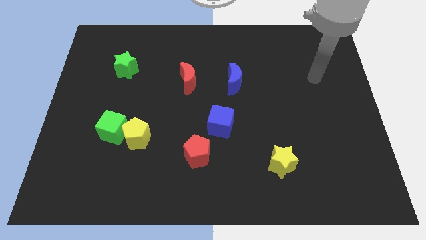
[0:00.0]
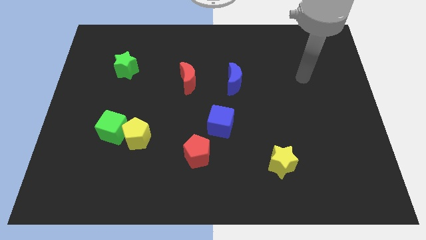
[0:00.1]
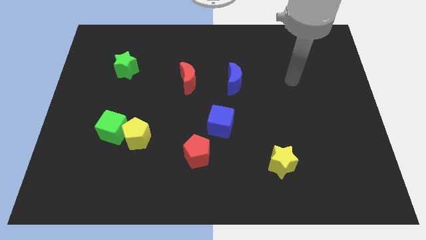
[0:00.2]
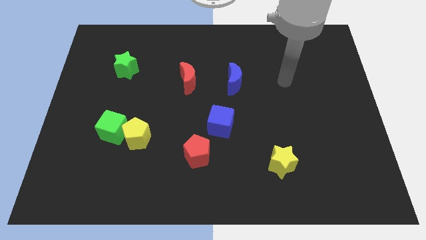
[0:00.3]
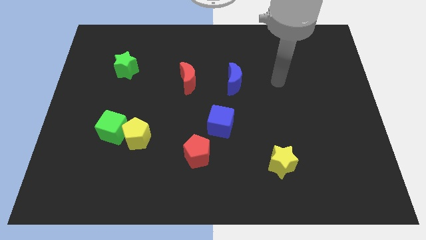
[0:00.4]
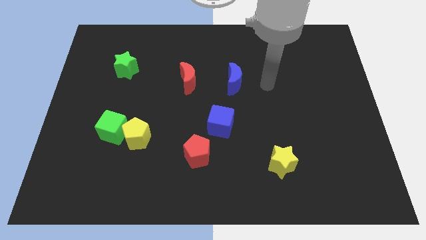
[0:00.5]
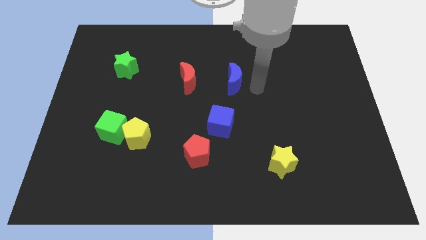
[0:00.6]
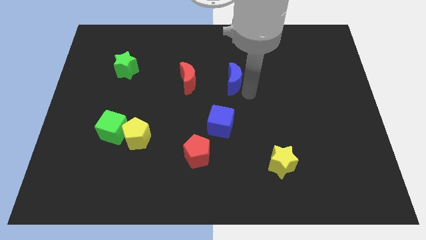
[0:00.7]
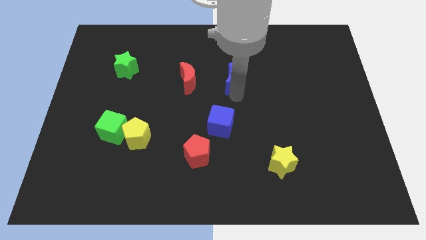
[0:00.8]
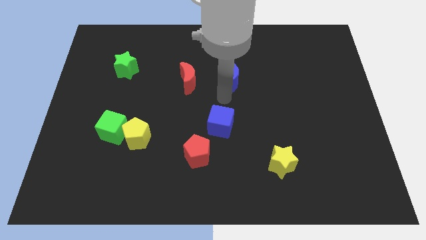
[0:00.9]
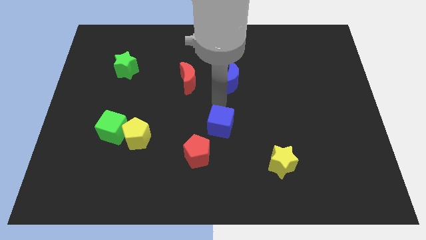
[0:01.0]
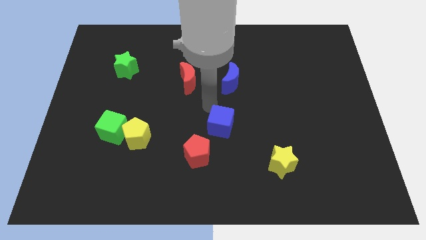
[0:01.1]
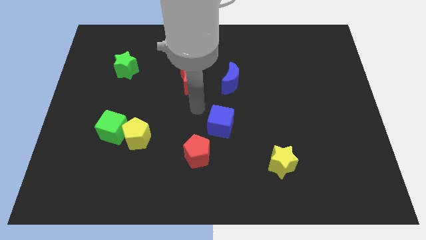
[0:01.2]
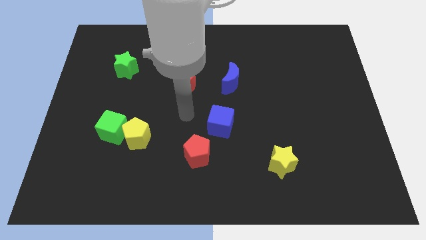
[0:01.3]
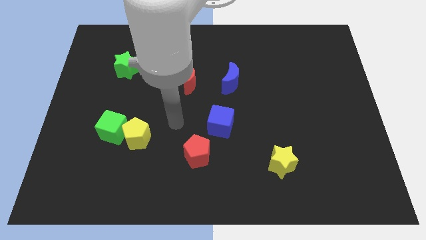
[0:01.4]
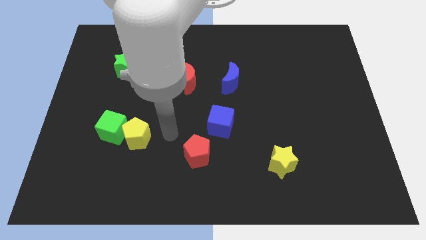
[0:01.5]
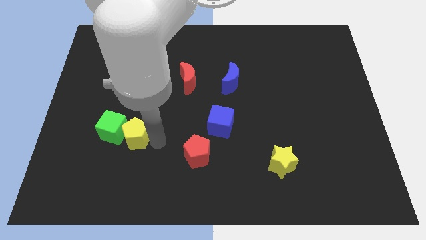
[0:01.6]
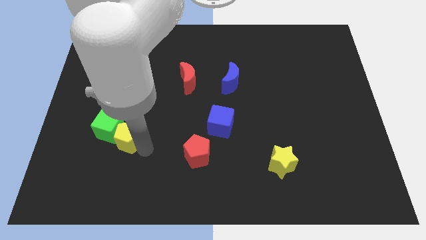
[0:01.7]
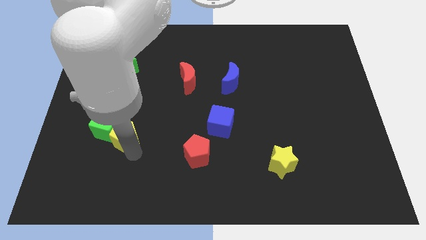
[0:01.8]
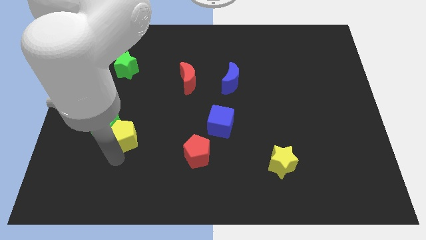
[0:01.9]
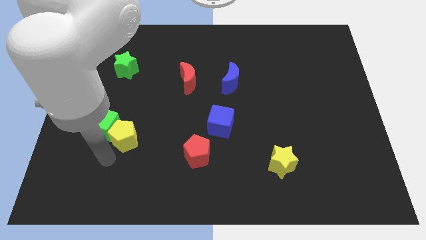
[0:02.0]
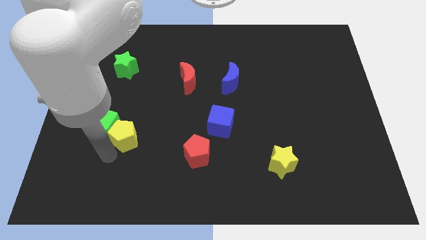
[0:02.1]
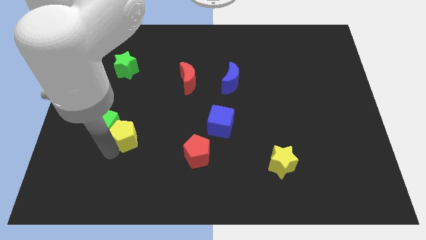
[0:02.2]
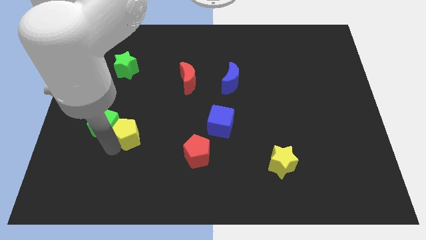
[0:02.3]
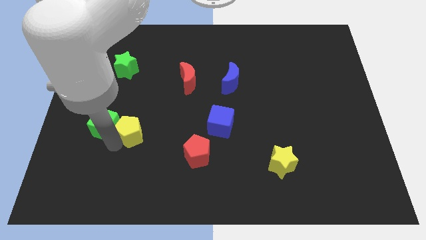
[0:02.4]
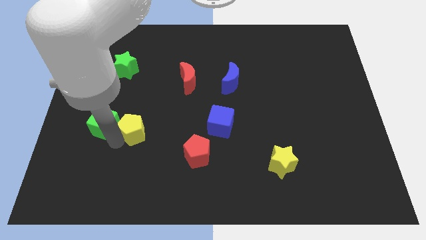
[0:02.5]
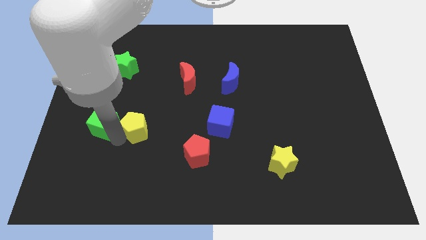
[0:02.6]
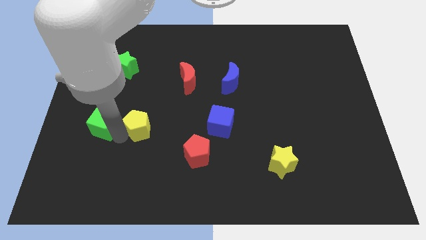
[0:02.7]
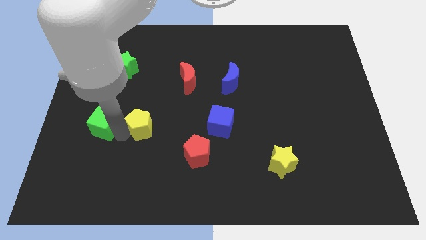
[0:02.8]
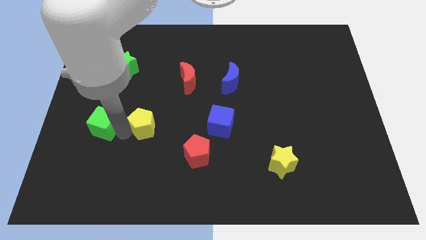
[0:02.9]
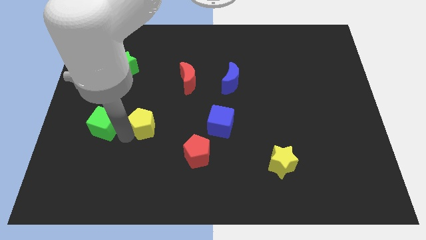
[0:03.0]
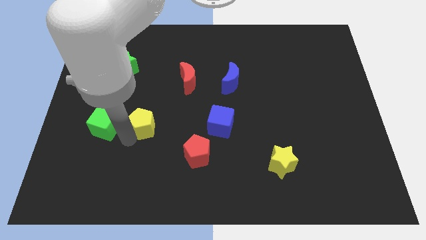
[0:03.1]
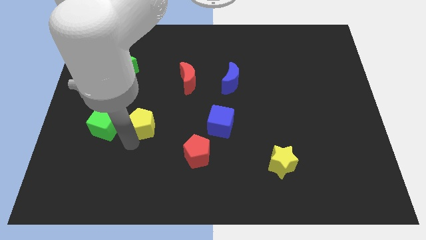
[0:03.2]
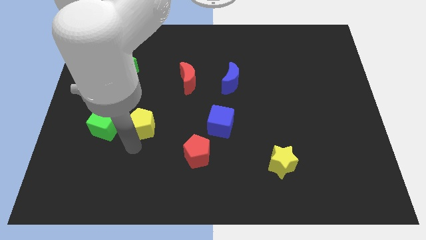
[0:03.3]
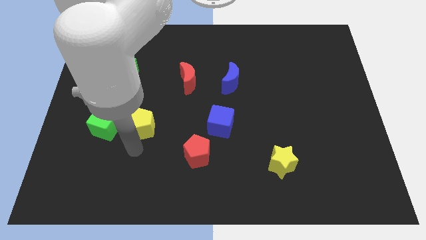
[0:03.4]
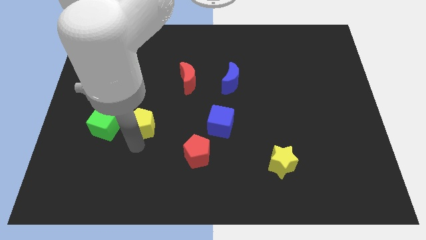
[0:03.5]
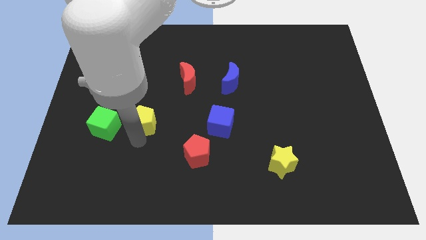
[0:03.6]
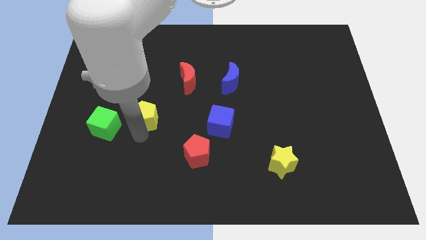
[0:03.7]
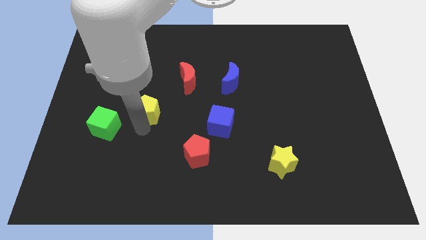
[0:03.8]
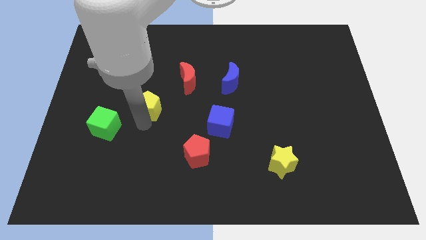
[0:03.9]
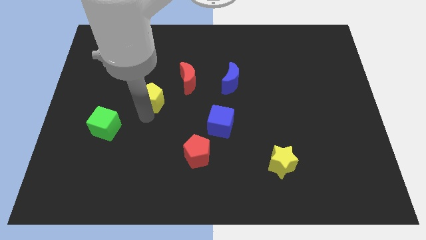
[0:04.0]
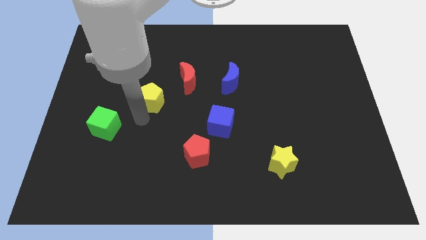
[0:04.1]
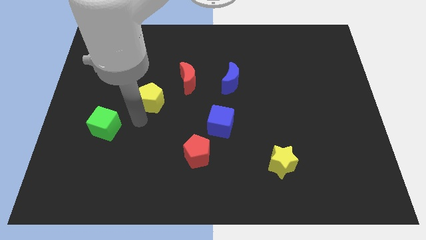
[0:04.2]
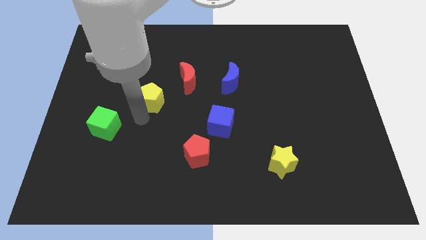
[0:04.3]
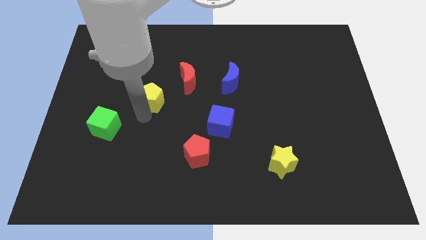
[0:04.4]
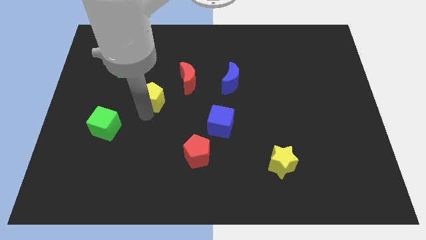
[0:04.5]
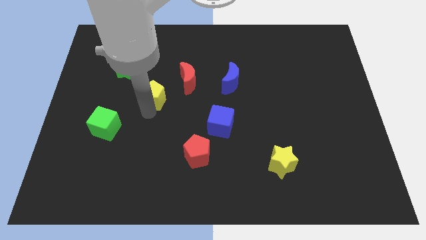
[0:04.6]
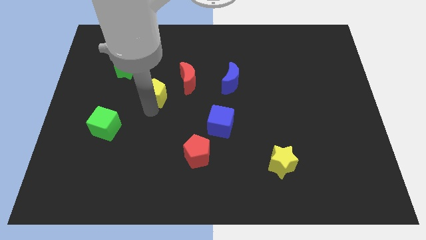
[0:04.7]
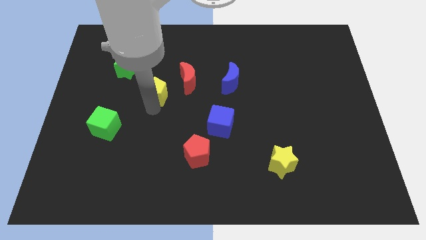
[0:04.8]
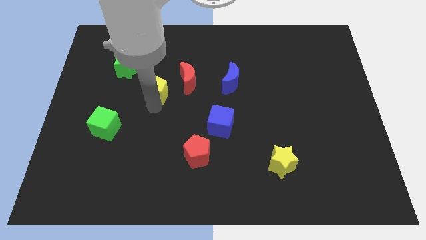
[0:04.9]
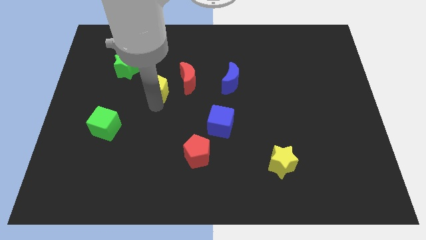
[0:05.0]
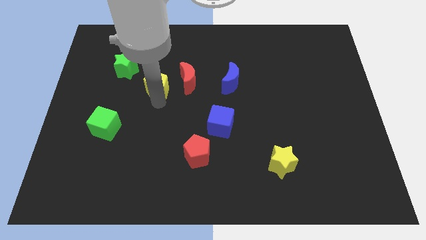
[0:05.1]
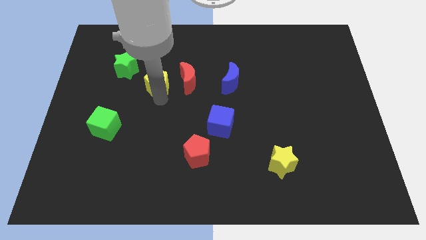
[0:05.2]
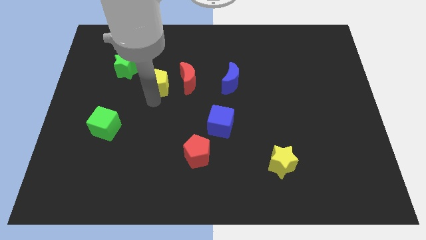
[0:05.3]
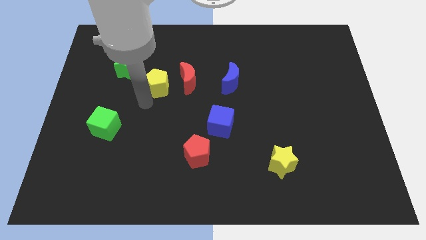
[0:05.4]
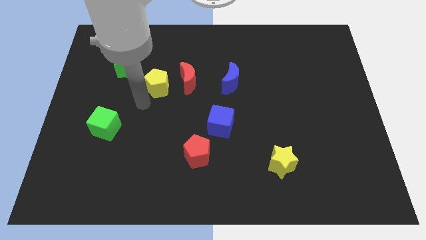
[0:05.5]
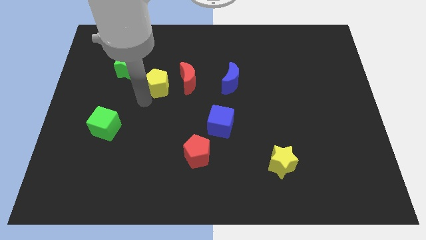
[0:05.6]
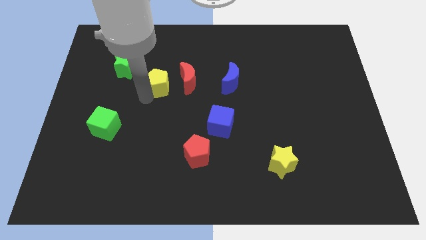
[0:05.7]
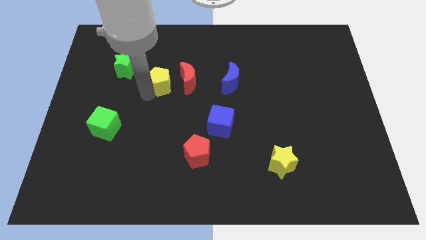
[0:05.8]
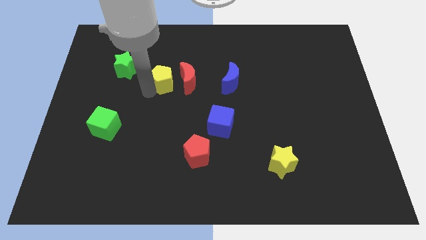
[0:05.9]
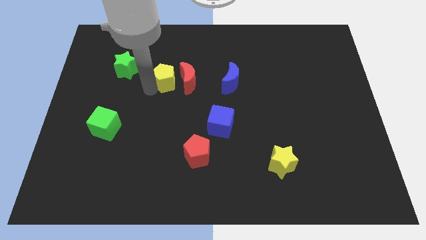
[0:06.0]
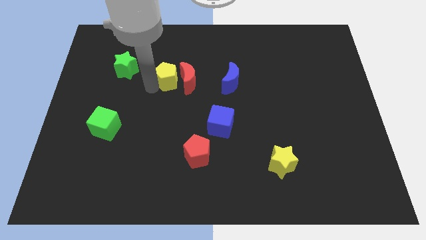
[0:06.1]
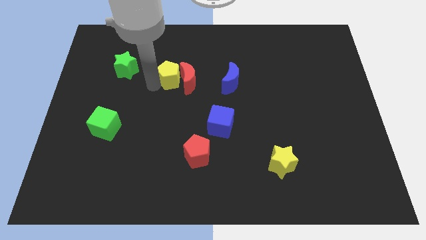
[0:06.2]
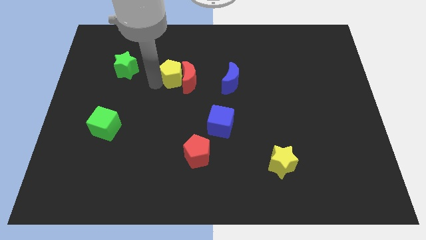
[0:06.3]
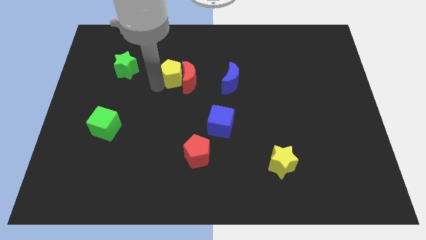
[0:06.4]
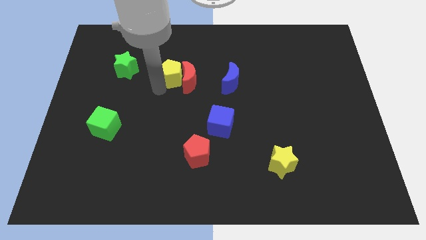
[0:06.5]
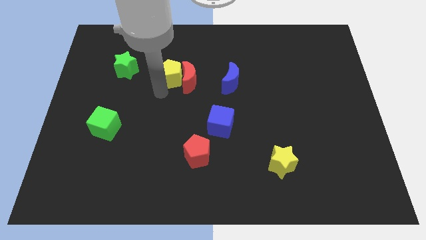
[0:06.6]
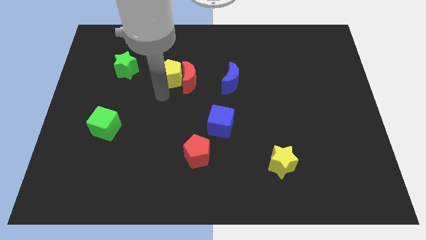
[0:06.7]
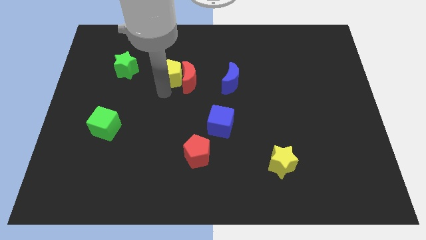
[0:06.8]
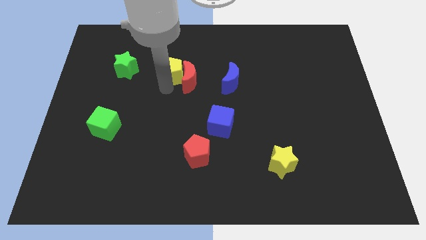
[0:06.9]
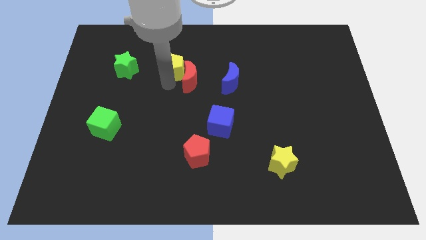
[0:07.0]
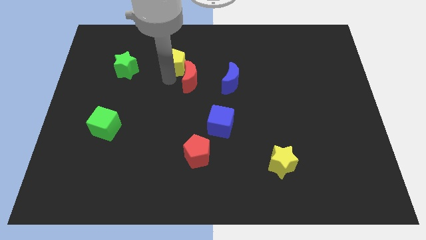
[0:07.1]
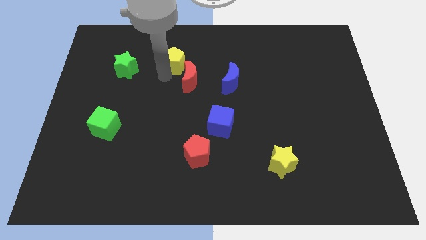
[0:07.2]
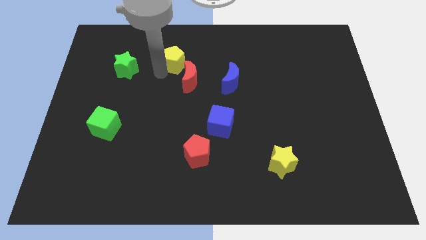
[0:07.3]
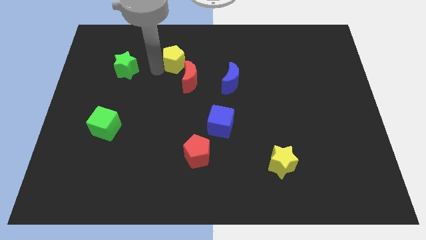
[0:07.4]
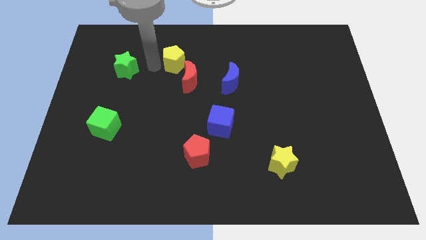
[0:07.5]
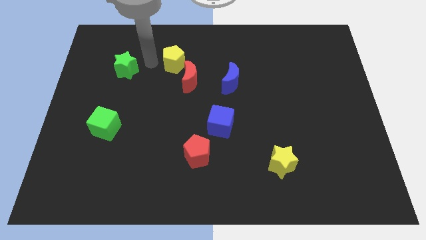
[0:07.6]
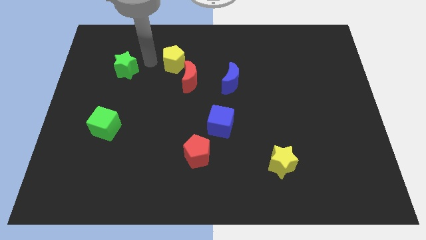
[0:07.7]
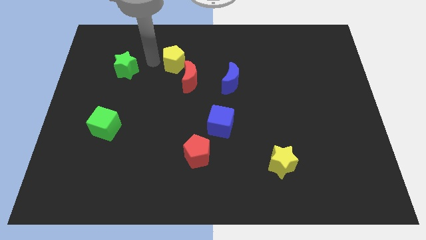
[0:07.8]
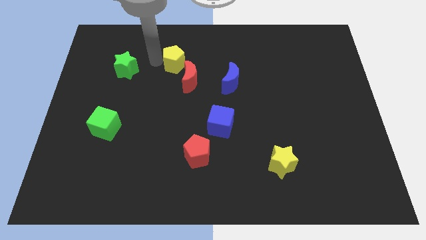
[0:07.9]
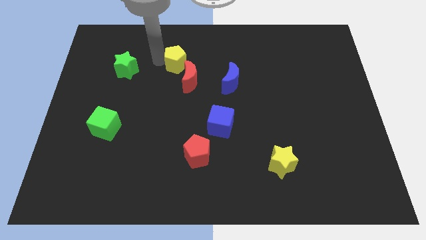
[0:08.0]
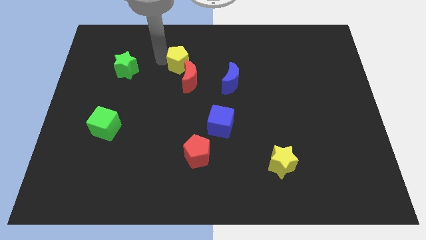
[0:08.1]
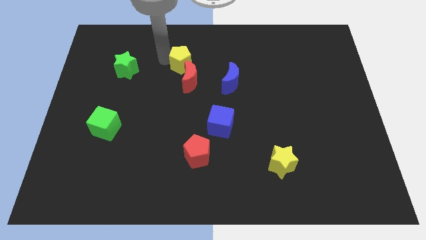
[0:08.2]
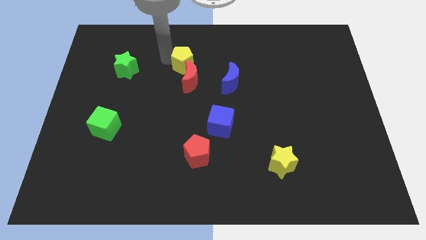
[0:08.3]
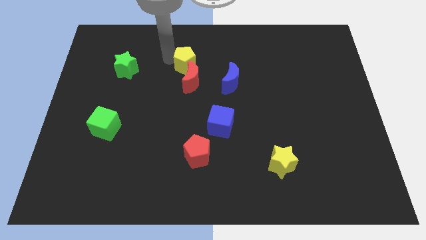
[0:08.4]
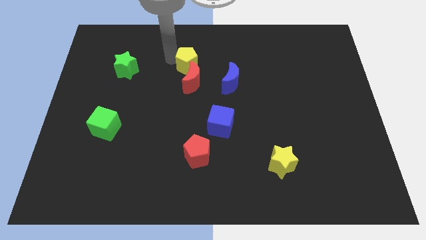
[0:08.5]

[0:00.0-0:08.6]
move the yellow pentagon up and to the right
